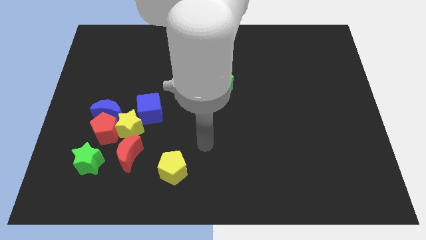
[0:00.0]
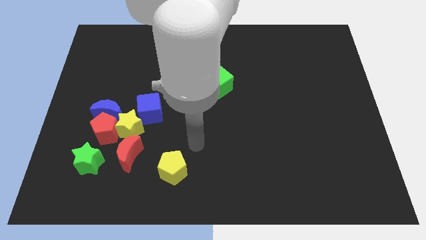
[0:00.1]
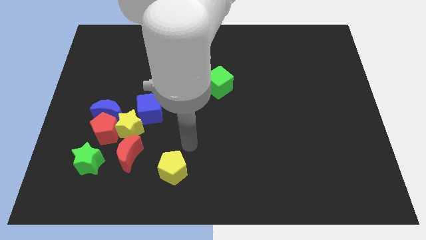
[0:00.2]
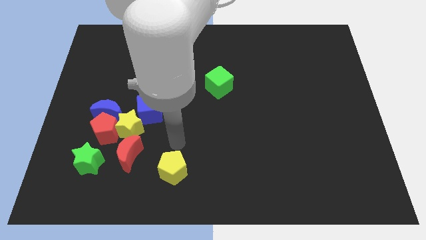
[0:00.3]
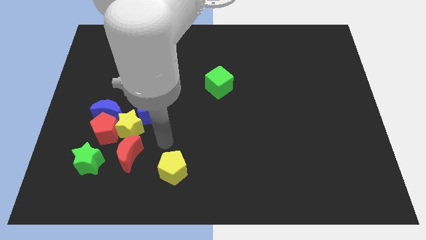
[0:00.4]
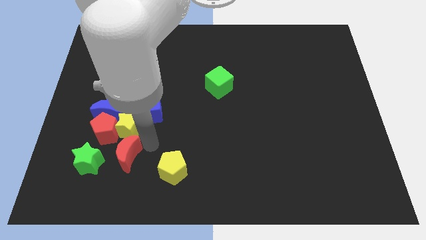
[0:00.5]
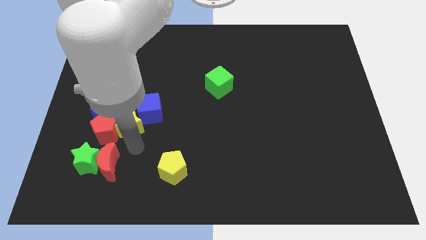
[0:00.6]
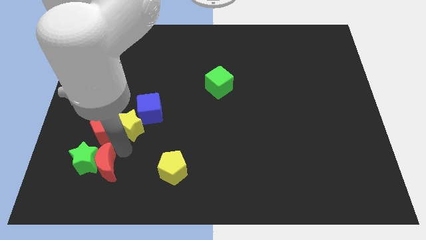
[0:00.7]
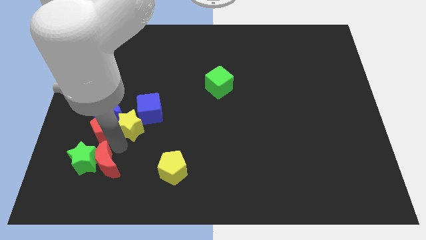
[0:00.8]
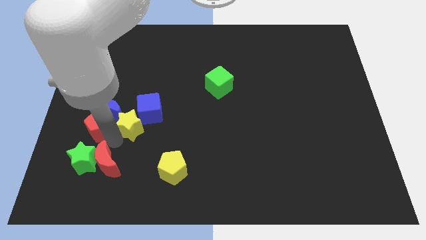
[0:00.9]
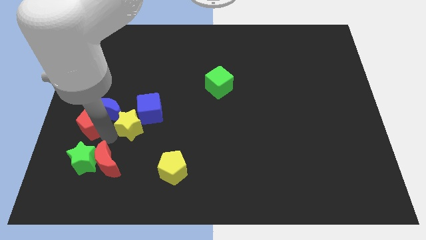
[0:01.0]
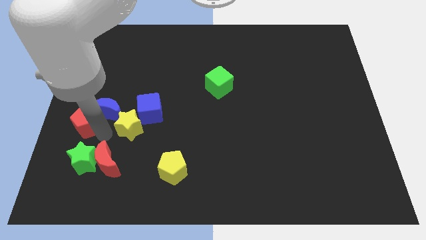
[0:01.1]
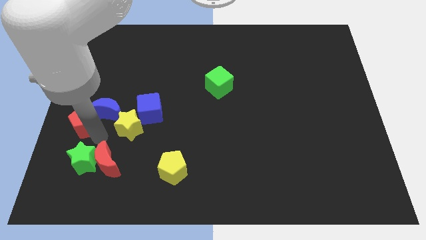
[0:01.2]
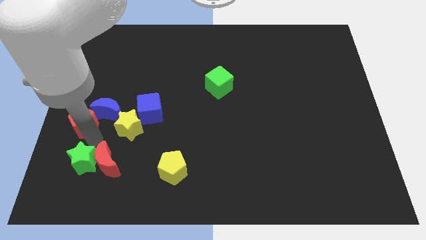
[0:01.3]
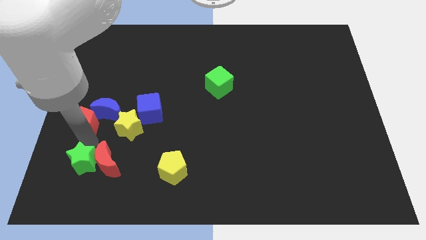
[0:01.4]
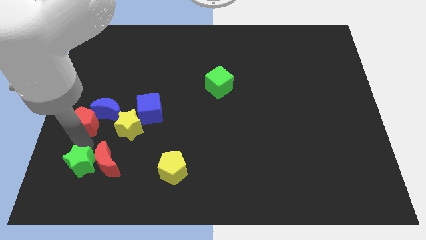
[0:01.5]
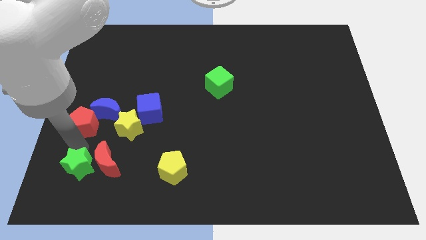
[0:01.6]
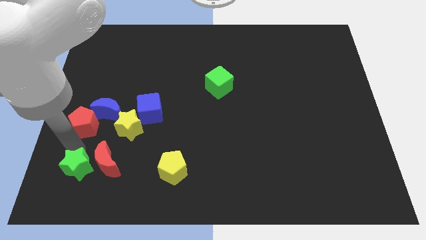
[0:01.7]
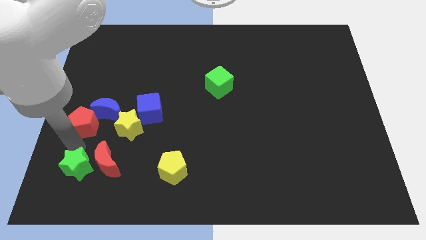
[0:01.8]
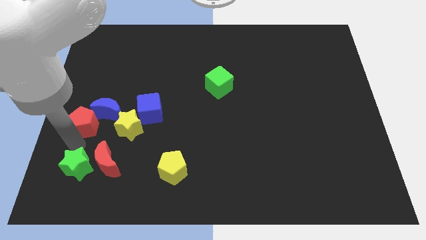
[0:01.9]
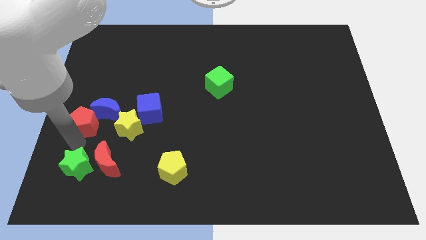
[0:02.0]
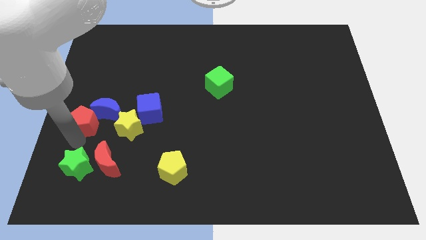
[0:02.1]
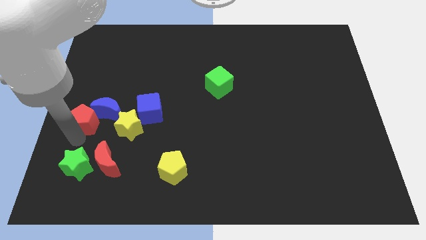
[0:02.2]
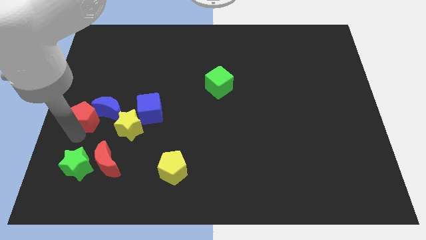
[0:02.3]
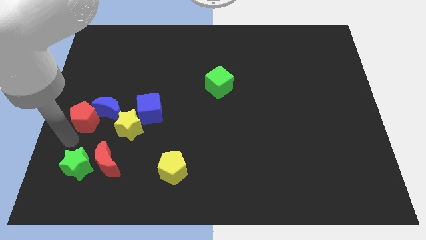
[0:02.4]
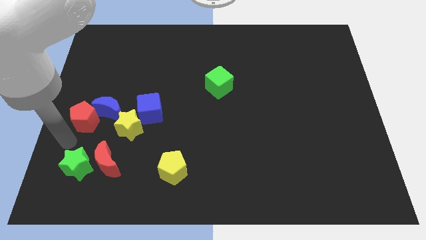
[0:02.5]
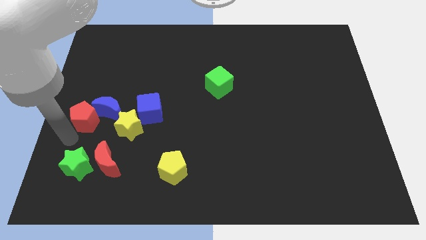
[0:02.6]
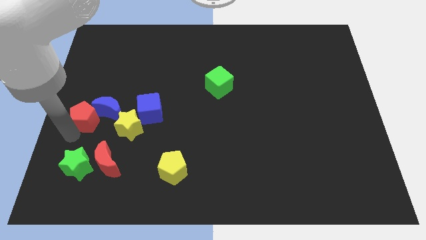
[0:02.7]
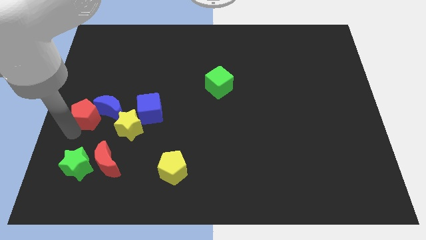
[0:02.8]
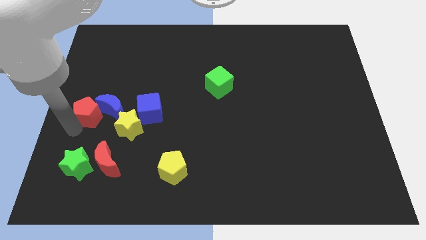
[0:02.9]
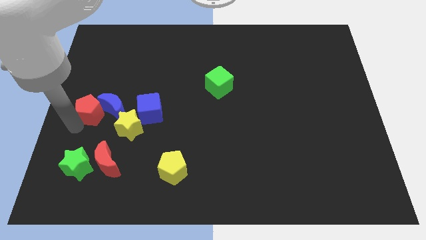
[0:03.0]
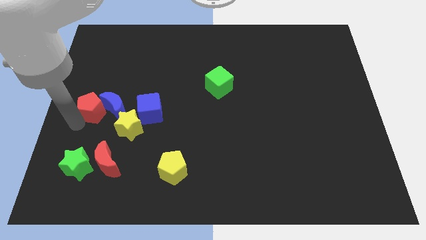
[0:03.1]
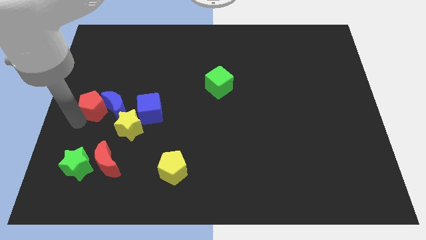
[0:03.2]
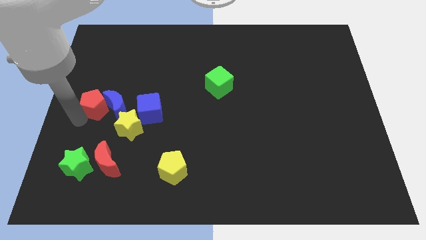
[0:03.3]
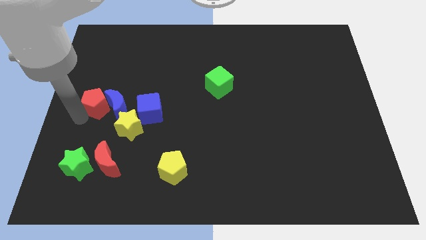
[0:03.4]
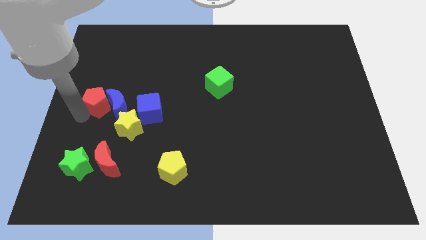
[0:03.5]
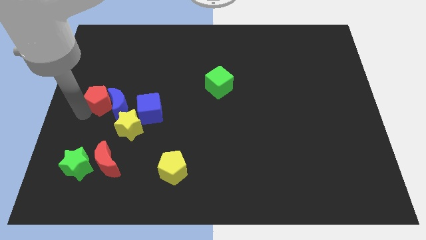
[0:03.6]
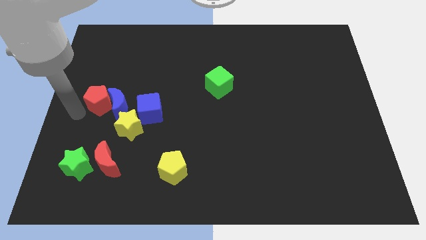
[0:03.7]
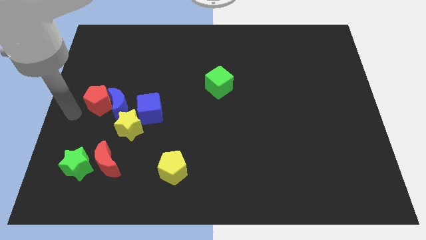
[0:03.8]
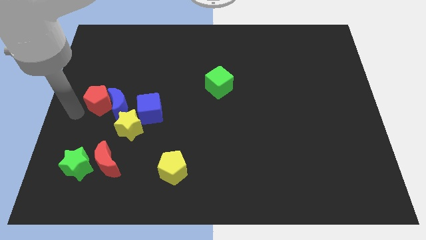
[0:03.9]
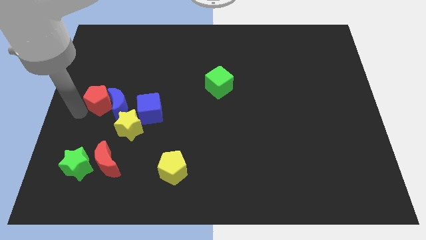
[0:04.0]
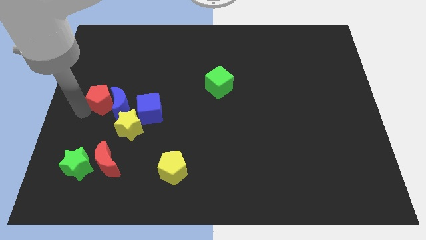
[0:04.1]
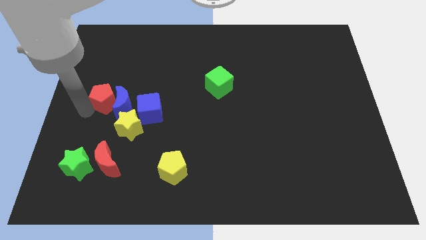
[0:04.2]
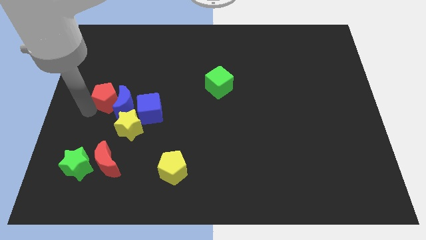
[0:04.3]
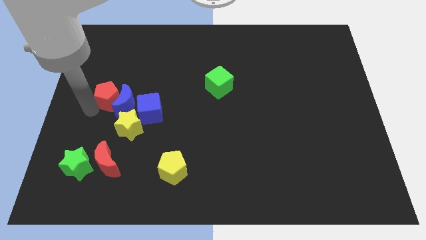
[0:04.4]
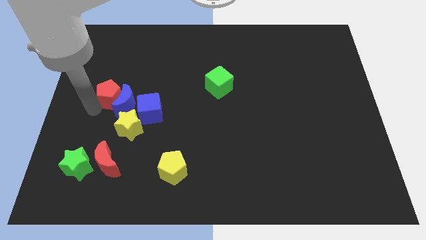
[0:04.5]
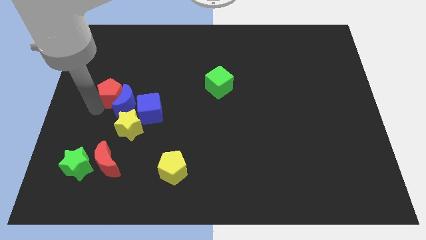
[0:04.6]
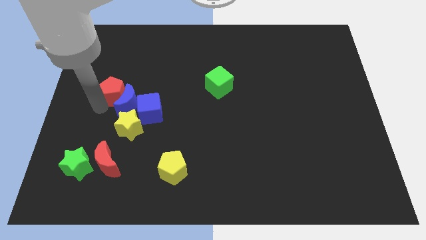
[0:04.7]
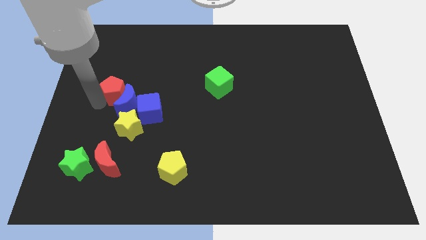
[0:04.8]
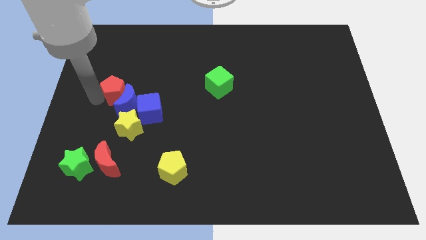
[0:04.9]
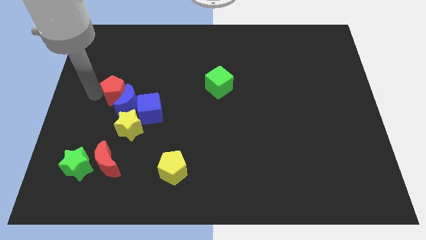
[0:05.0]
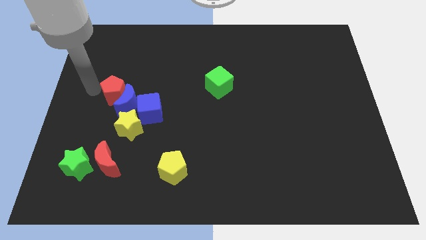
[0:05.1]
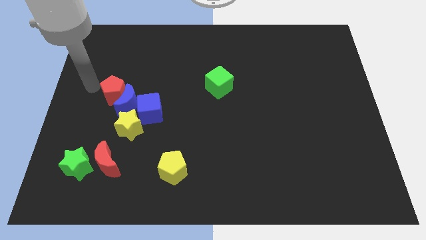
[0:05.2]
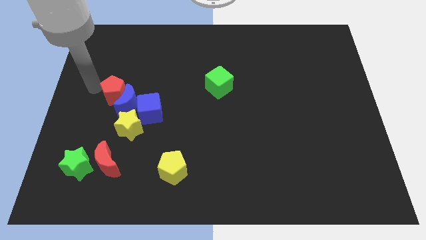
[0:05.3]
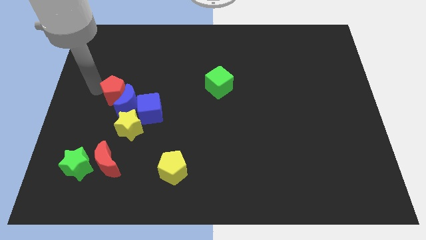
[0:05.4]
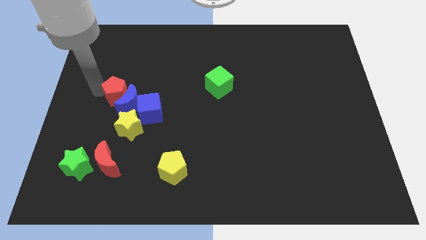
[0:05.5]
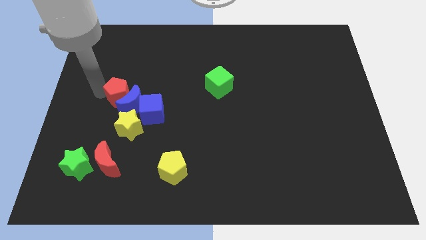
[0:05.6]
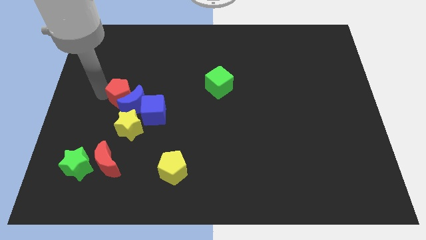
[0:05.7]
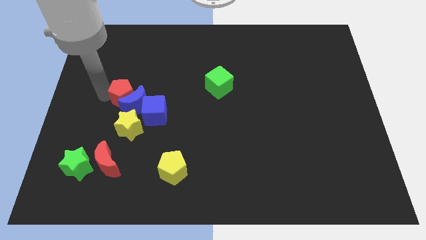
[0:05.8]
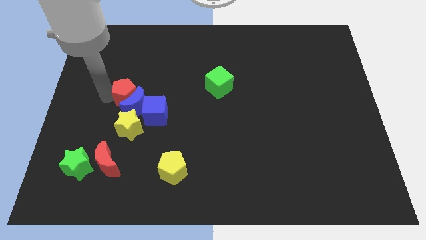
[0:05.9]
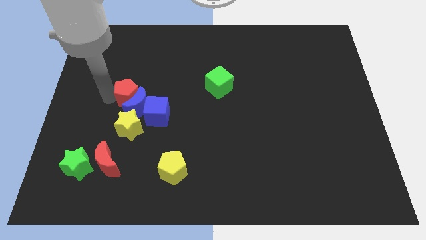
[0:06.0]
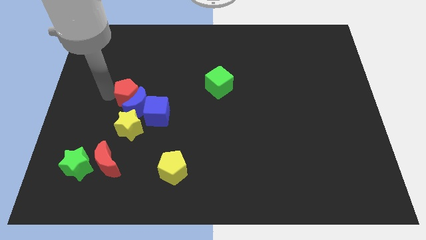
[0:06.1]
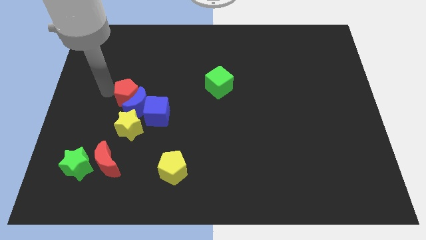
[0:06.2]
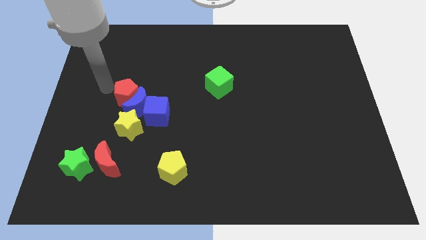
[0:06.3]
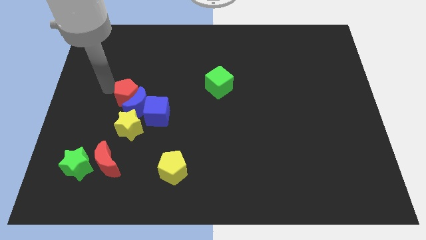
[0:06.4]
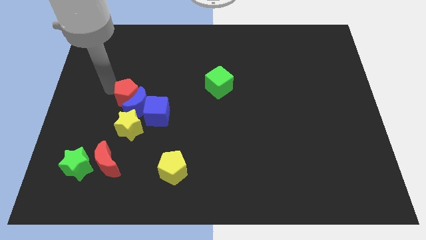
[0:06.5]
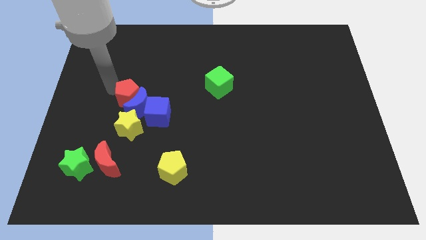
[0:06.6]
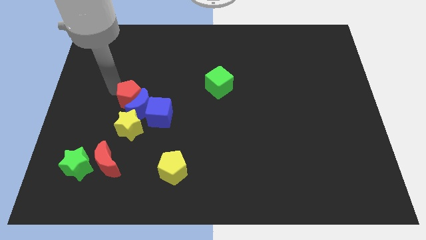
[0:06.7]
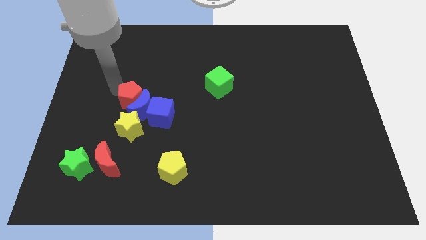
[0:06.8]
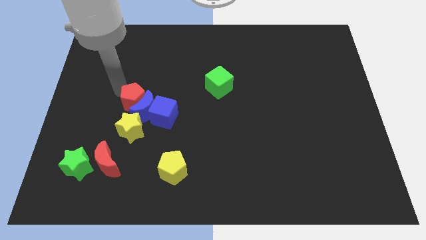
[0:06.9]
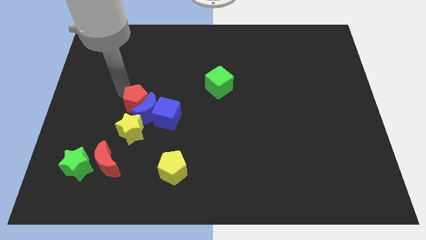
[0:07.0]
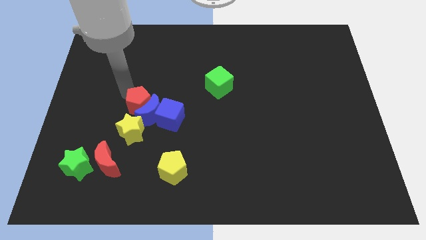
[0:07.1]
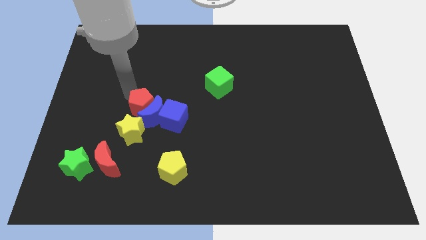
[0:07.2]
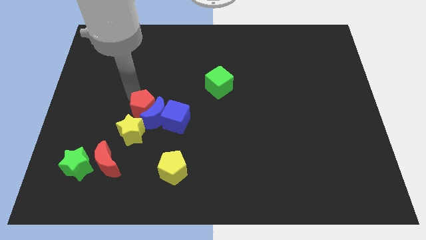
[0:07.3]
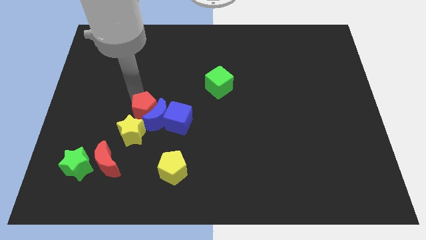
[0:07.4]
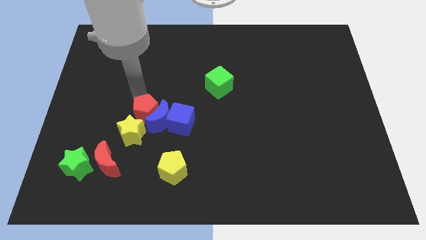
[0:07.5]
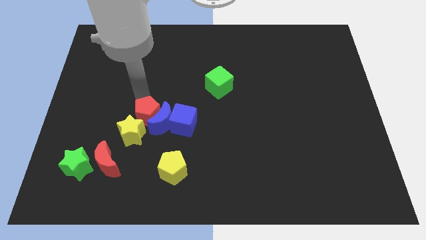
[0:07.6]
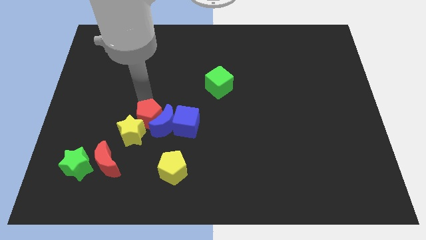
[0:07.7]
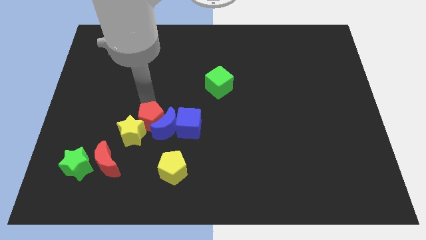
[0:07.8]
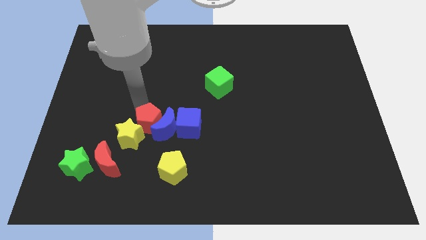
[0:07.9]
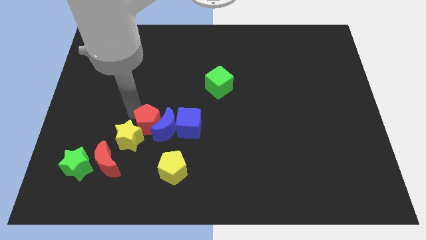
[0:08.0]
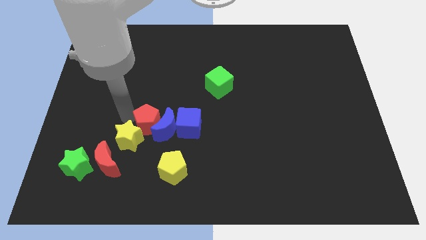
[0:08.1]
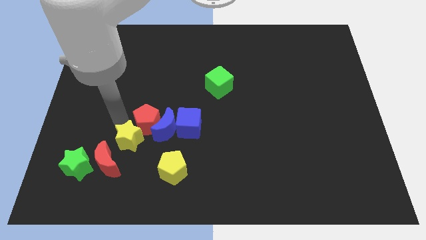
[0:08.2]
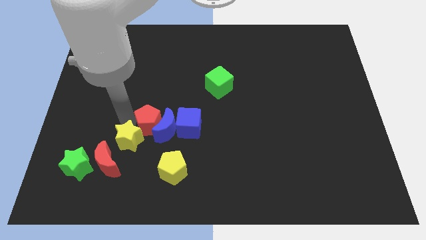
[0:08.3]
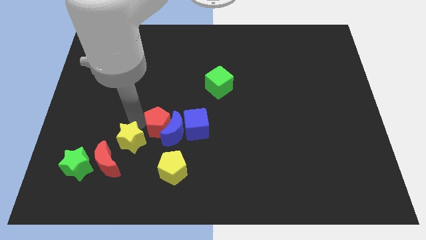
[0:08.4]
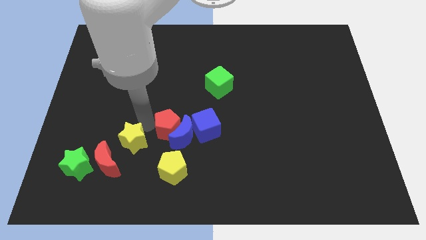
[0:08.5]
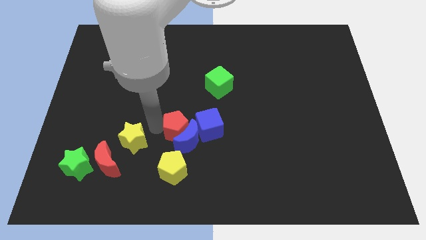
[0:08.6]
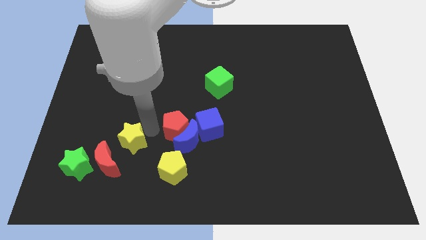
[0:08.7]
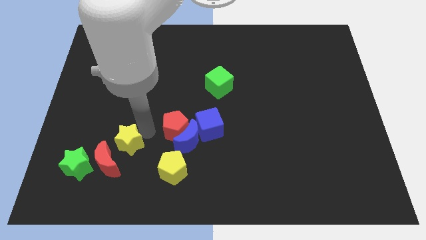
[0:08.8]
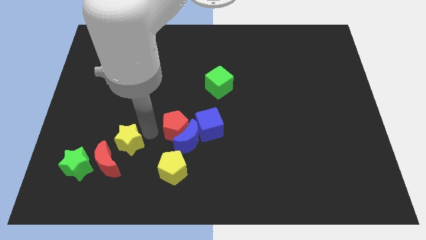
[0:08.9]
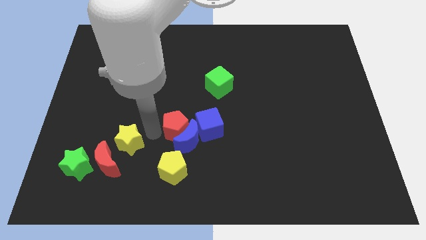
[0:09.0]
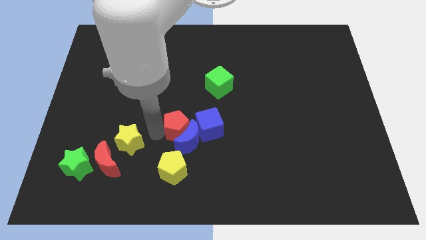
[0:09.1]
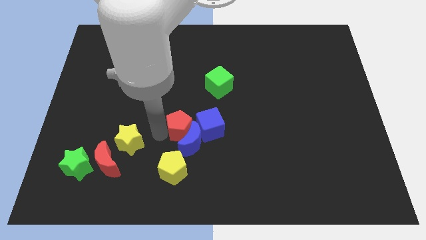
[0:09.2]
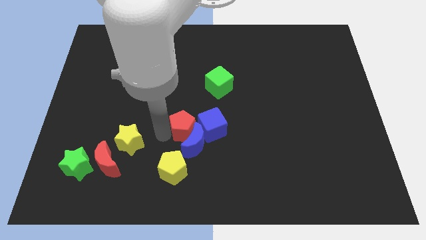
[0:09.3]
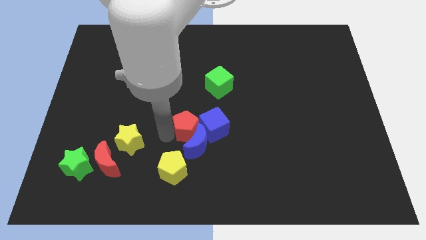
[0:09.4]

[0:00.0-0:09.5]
push the red pentagon towards the blue cube
